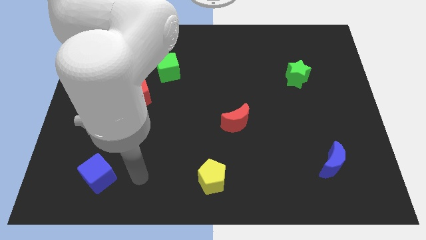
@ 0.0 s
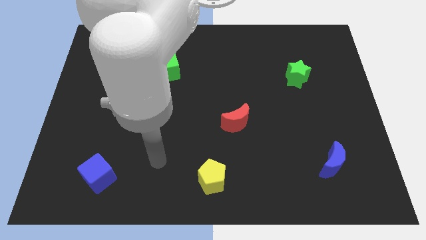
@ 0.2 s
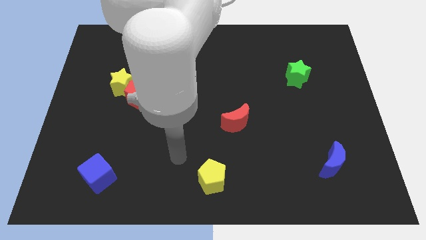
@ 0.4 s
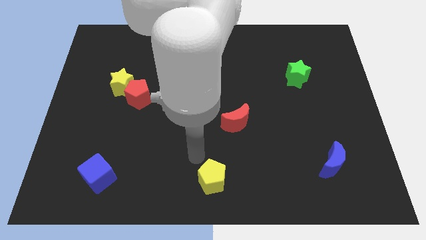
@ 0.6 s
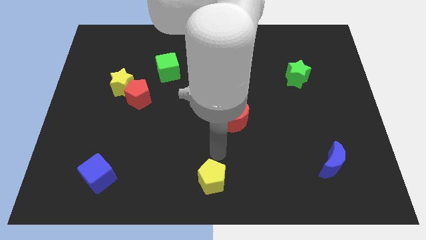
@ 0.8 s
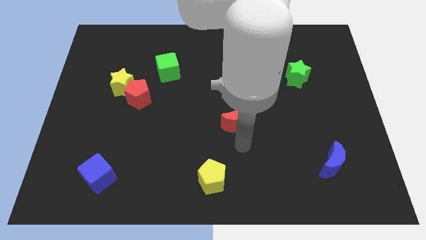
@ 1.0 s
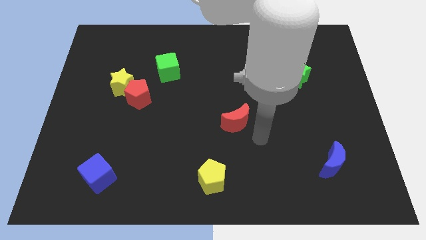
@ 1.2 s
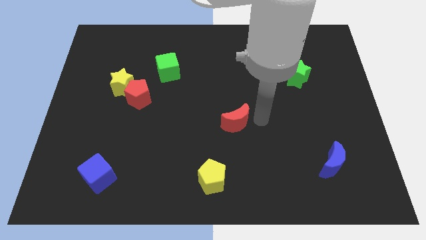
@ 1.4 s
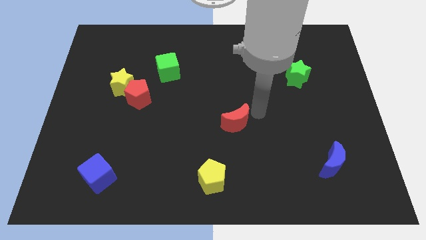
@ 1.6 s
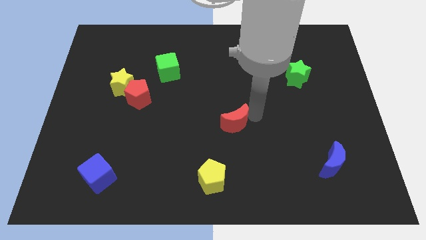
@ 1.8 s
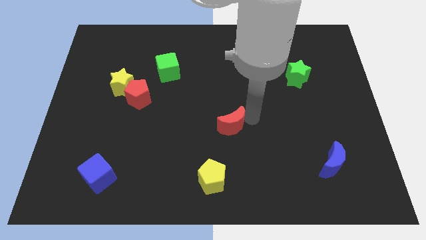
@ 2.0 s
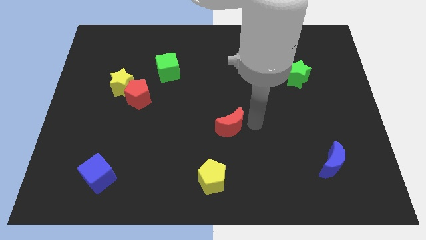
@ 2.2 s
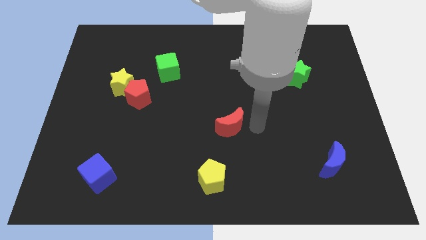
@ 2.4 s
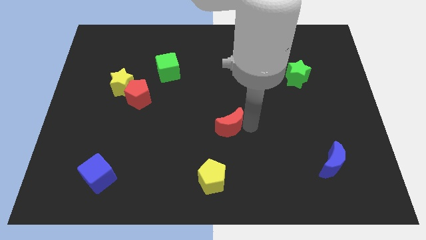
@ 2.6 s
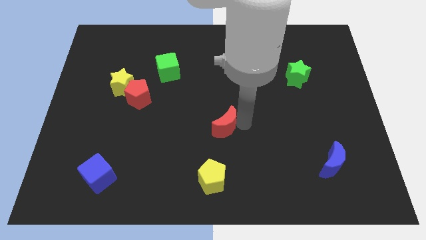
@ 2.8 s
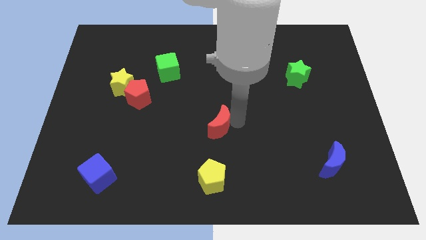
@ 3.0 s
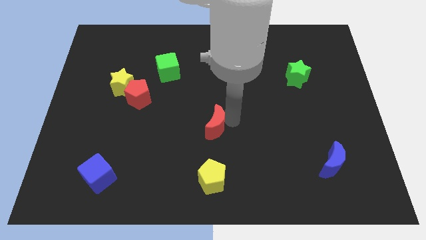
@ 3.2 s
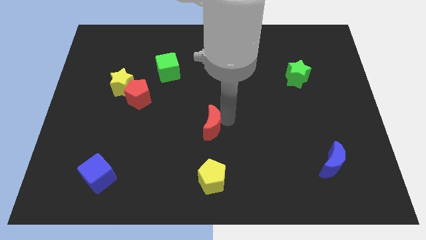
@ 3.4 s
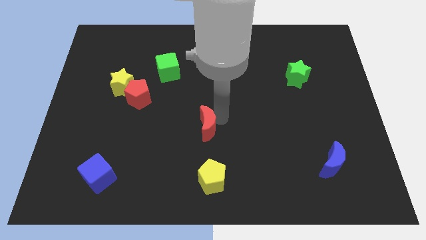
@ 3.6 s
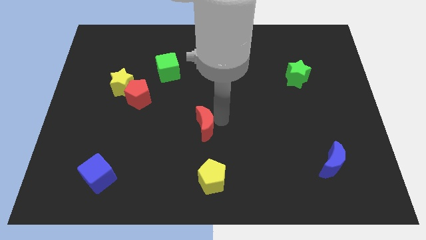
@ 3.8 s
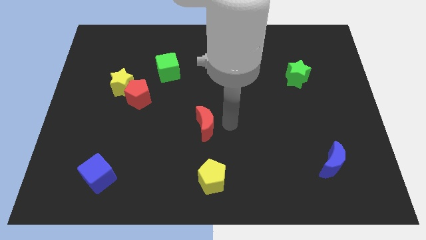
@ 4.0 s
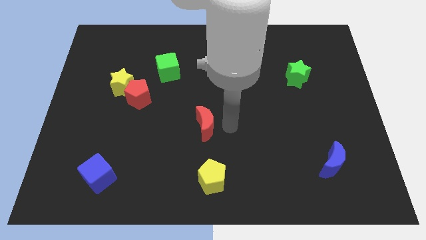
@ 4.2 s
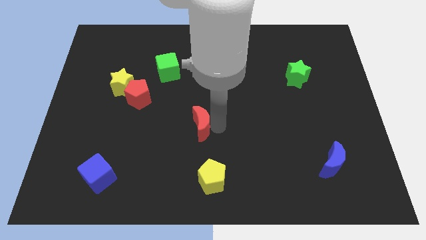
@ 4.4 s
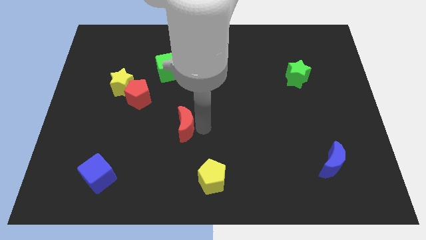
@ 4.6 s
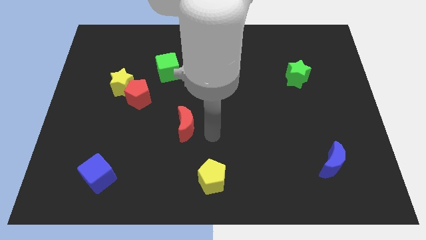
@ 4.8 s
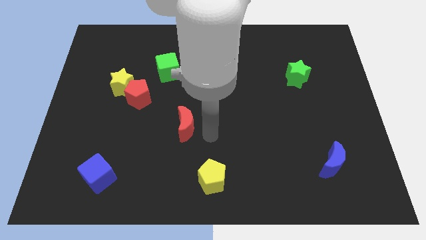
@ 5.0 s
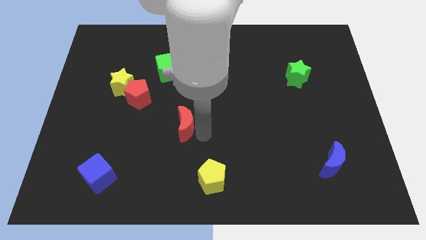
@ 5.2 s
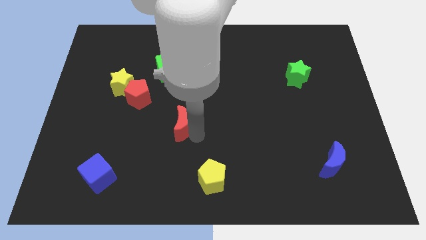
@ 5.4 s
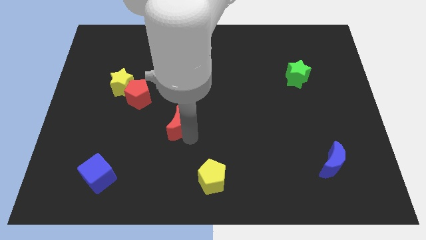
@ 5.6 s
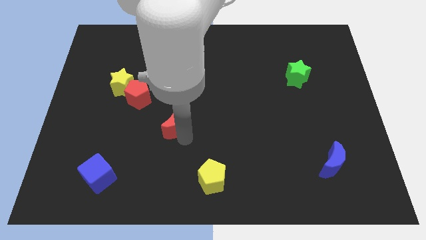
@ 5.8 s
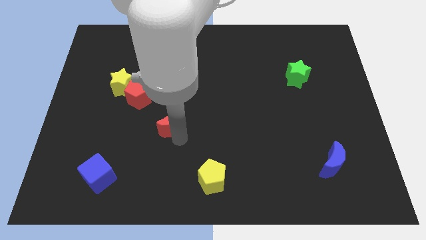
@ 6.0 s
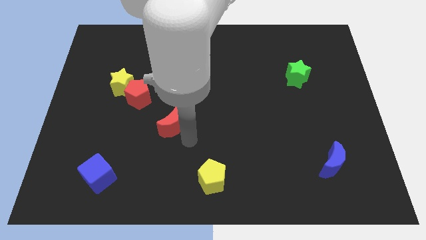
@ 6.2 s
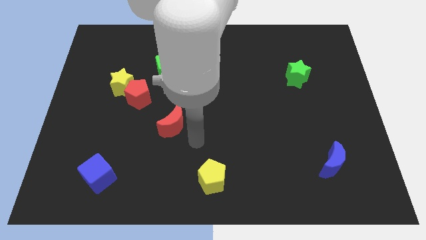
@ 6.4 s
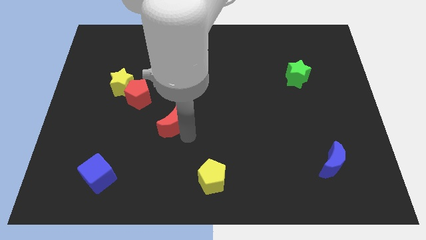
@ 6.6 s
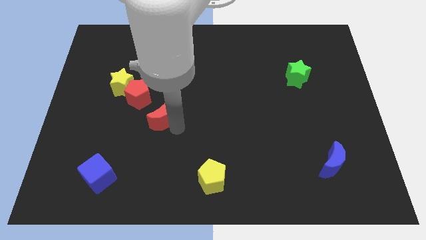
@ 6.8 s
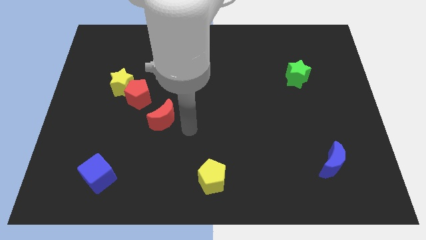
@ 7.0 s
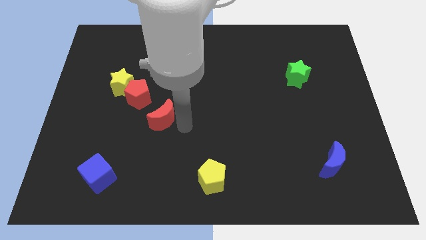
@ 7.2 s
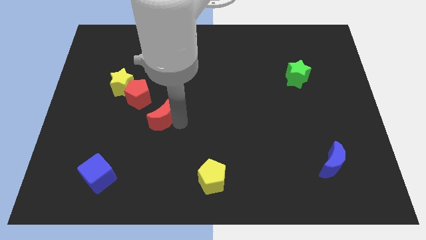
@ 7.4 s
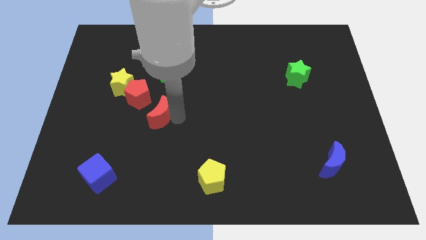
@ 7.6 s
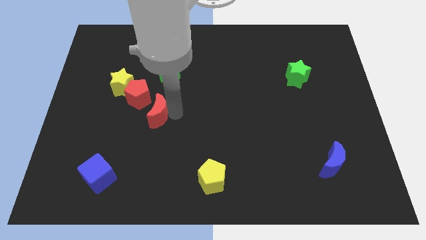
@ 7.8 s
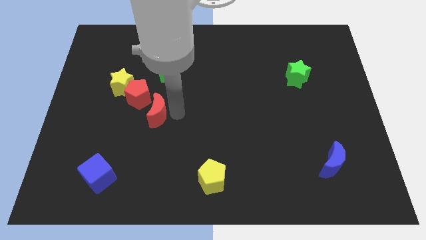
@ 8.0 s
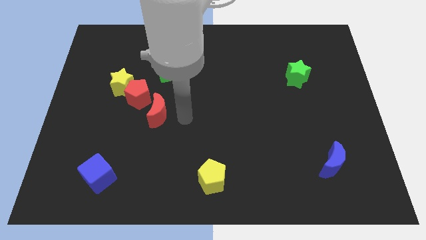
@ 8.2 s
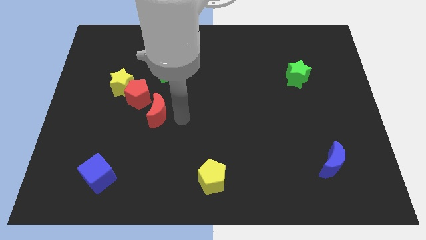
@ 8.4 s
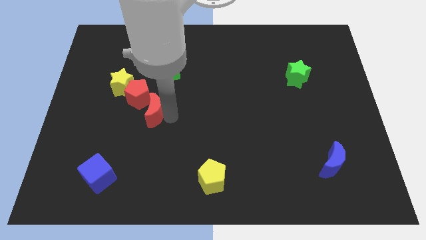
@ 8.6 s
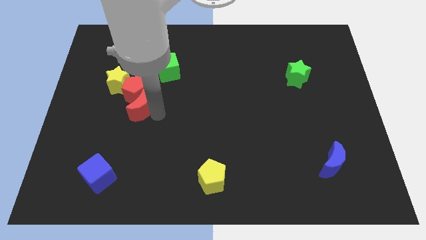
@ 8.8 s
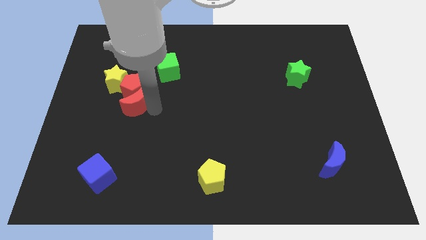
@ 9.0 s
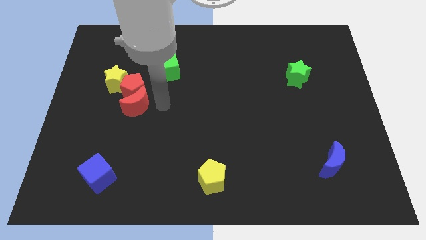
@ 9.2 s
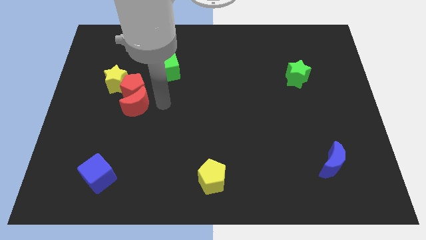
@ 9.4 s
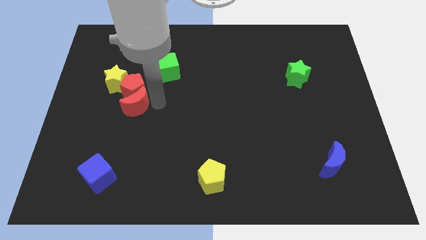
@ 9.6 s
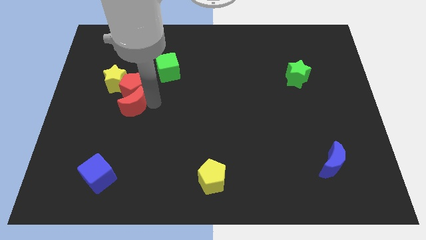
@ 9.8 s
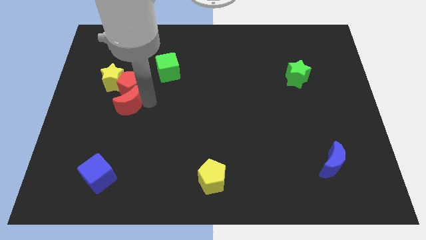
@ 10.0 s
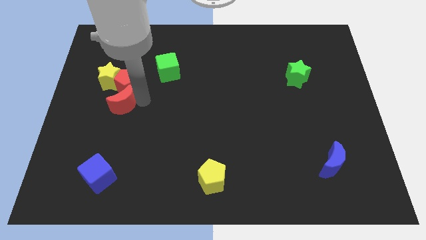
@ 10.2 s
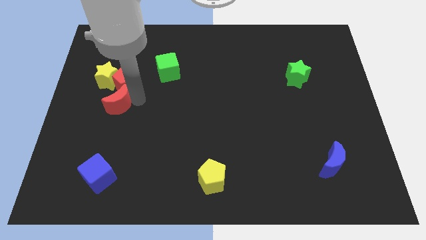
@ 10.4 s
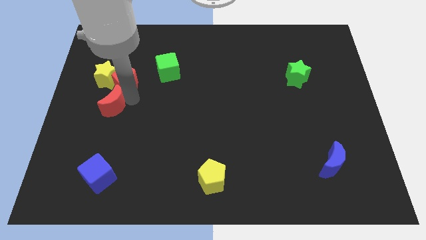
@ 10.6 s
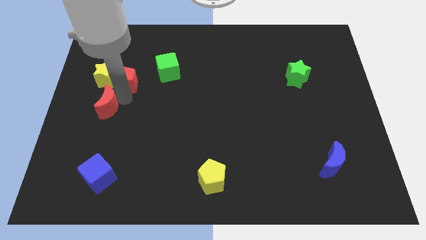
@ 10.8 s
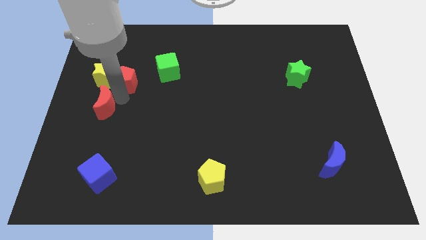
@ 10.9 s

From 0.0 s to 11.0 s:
slide the red moon to the center left
